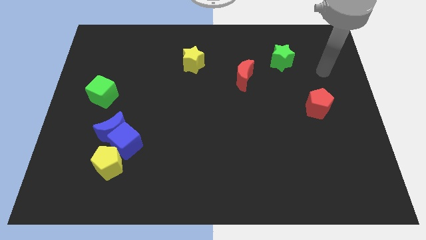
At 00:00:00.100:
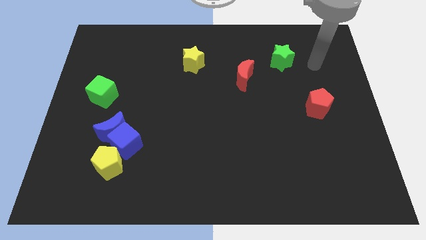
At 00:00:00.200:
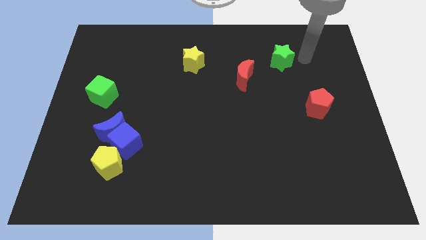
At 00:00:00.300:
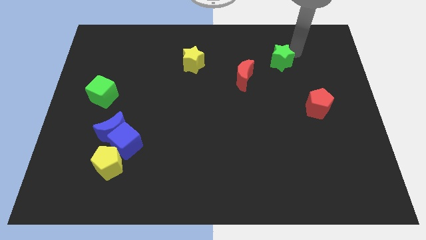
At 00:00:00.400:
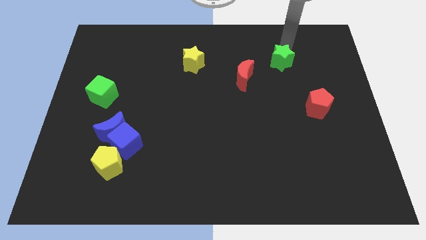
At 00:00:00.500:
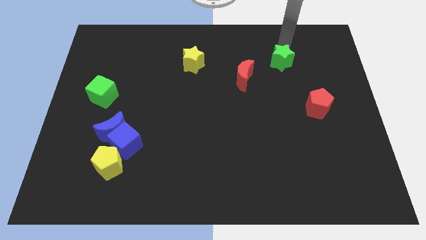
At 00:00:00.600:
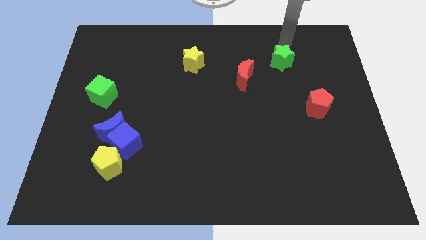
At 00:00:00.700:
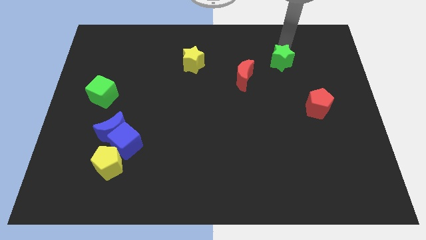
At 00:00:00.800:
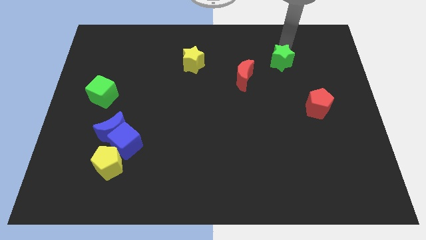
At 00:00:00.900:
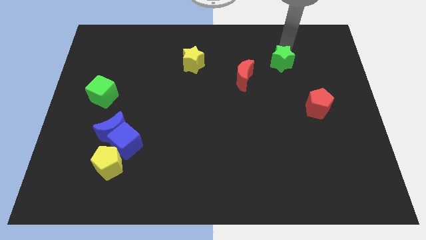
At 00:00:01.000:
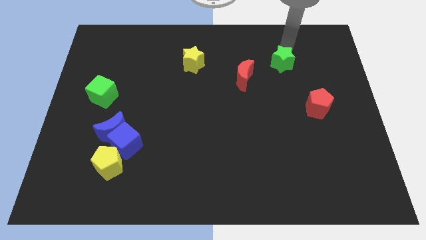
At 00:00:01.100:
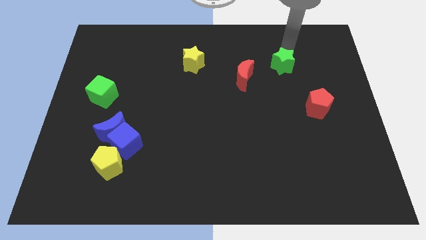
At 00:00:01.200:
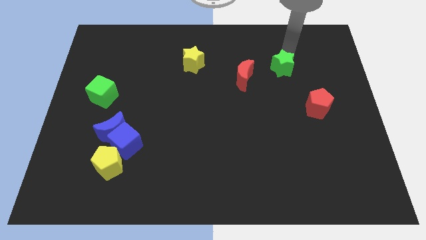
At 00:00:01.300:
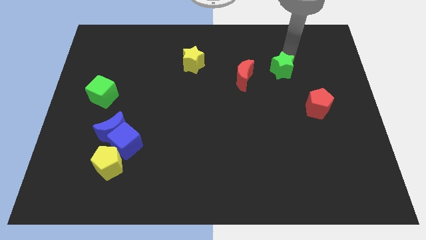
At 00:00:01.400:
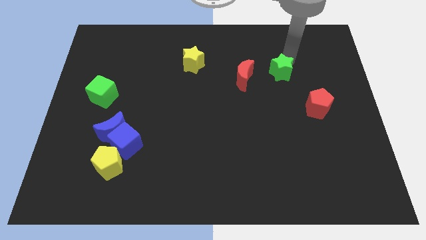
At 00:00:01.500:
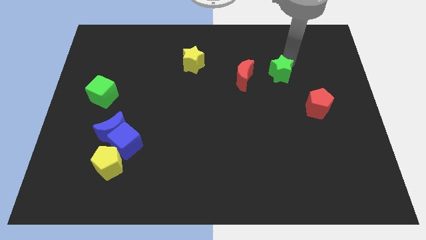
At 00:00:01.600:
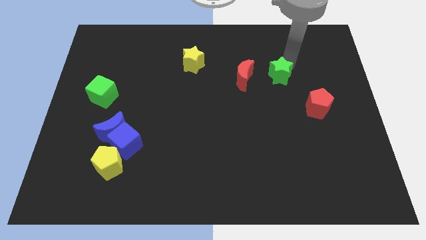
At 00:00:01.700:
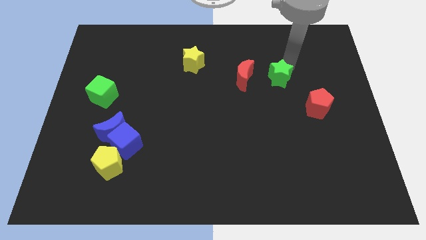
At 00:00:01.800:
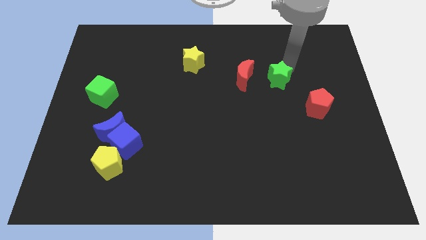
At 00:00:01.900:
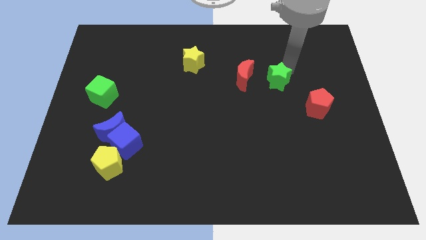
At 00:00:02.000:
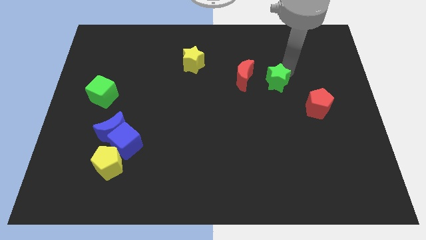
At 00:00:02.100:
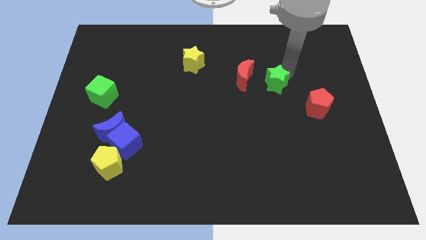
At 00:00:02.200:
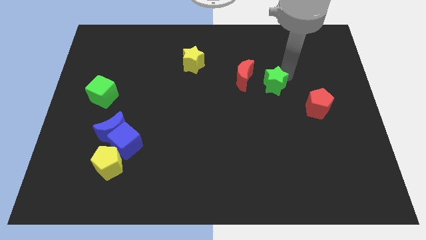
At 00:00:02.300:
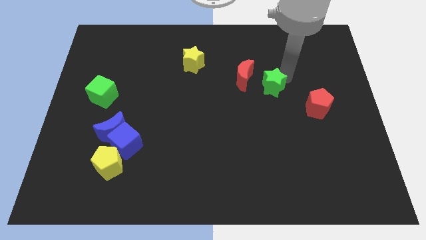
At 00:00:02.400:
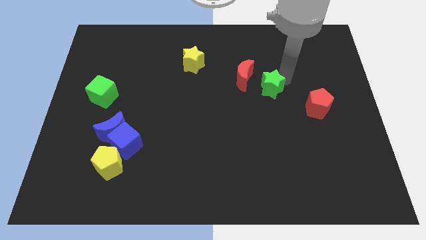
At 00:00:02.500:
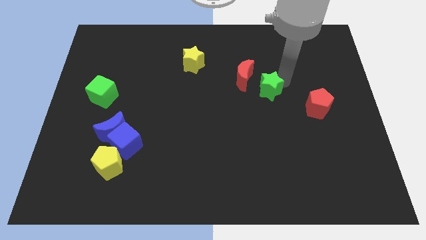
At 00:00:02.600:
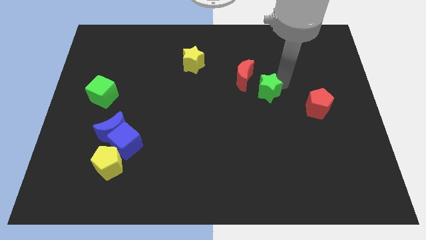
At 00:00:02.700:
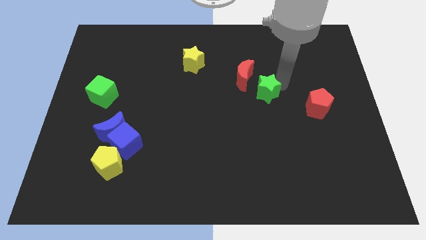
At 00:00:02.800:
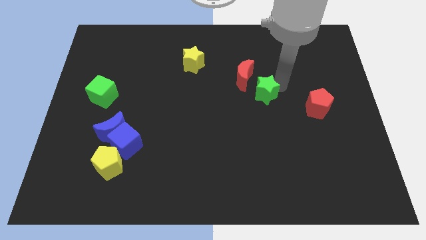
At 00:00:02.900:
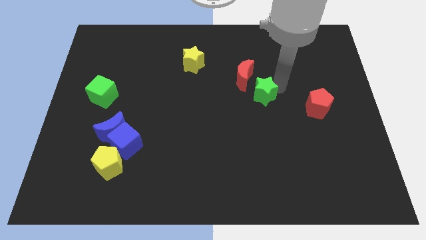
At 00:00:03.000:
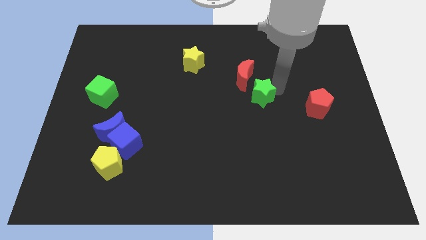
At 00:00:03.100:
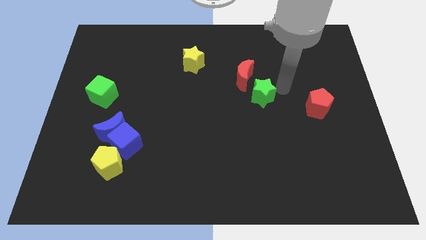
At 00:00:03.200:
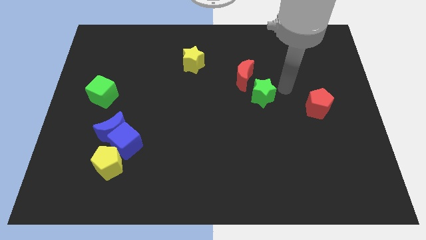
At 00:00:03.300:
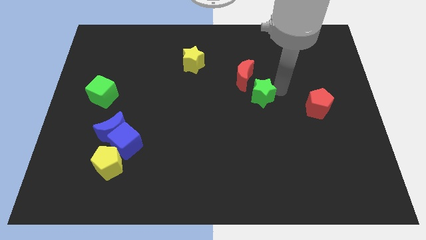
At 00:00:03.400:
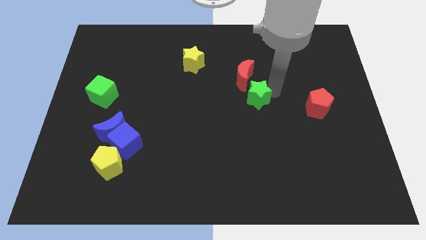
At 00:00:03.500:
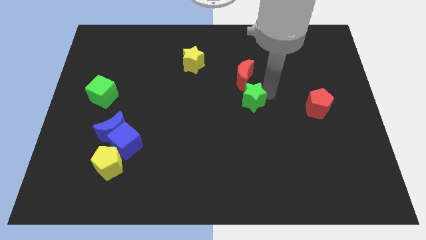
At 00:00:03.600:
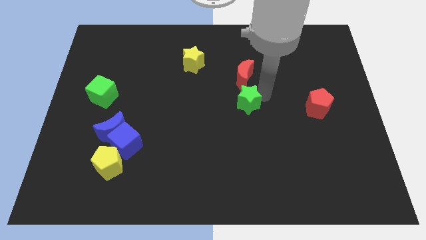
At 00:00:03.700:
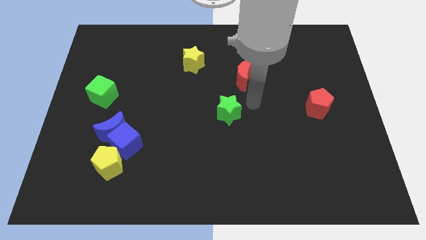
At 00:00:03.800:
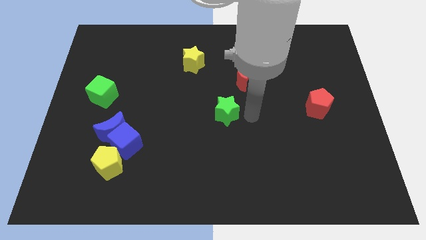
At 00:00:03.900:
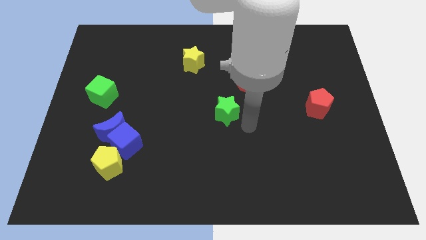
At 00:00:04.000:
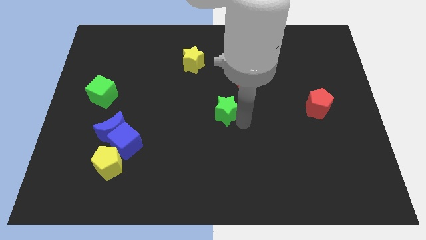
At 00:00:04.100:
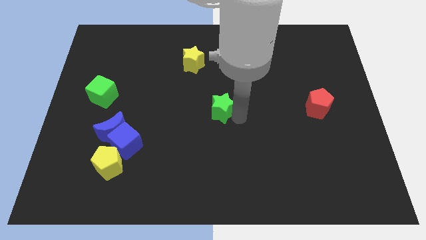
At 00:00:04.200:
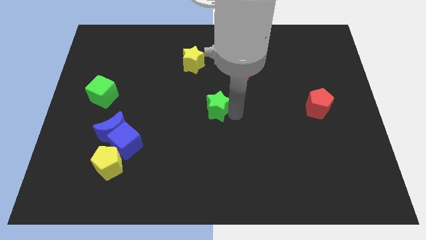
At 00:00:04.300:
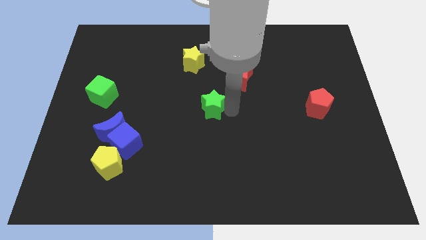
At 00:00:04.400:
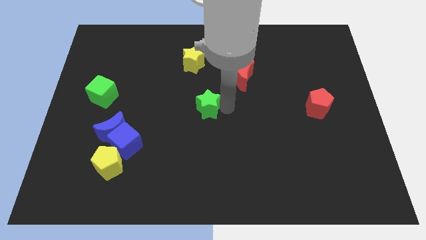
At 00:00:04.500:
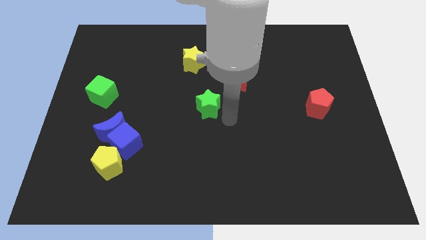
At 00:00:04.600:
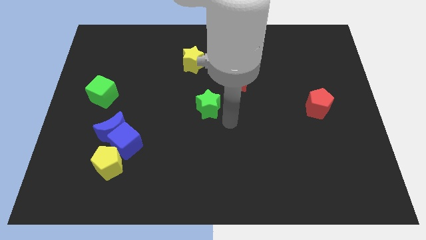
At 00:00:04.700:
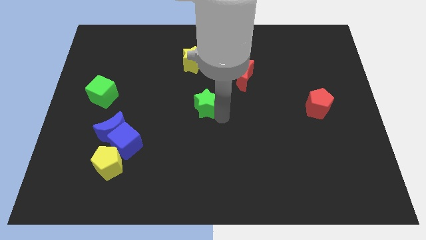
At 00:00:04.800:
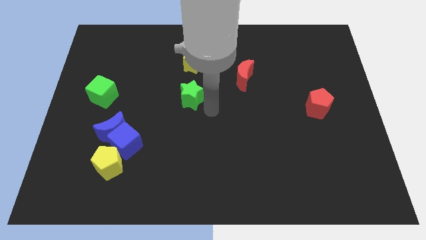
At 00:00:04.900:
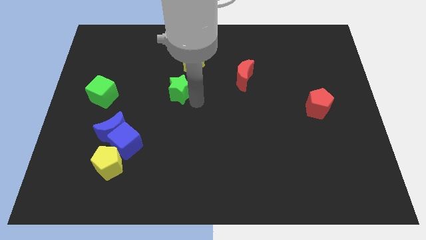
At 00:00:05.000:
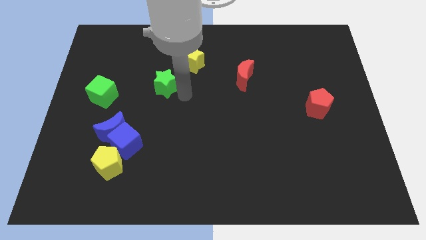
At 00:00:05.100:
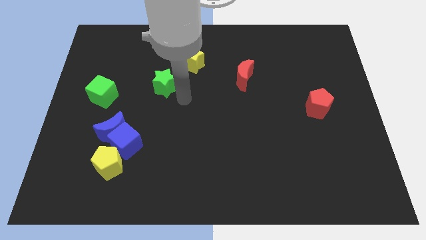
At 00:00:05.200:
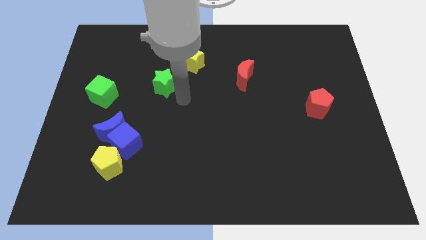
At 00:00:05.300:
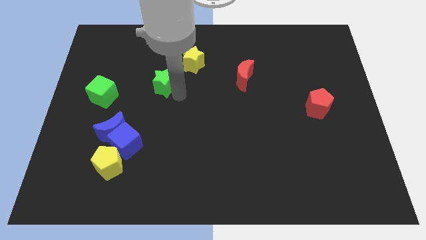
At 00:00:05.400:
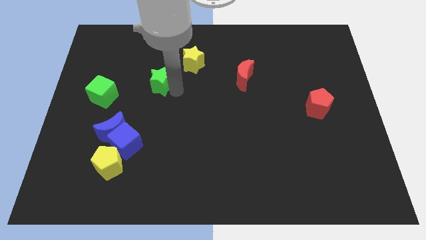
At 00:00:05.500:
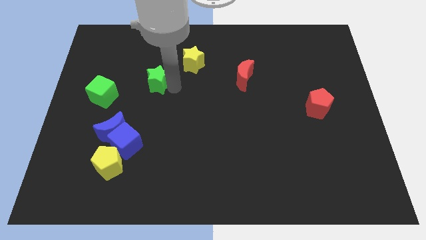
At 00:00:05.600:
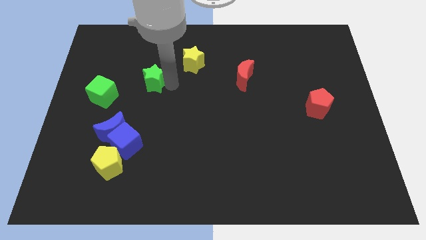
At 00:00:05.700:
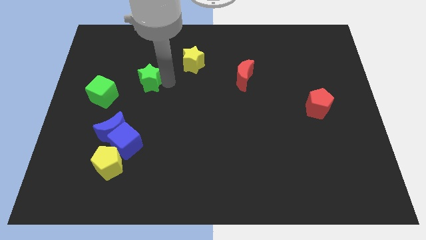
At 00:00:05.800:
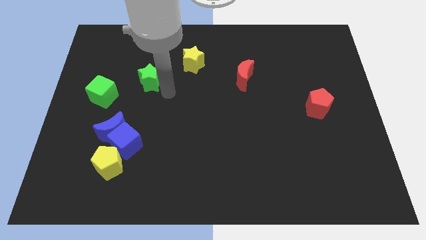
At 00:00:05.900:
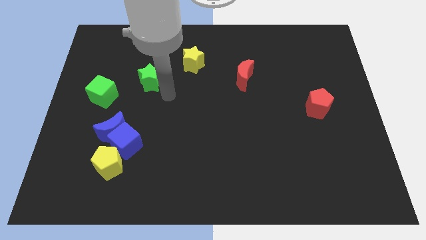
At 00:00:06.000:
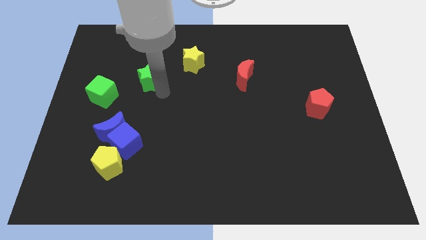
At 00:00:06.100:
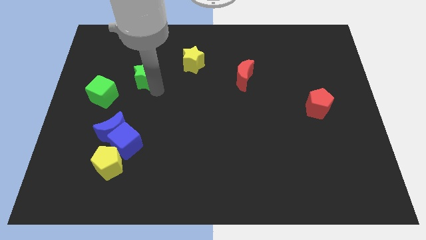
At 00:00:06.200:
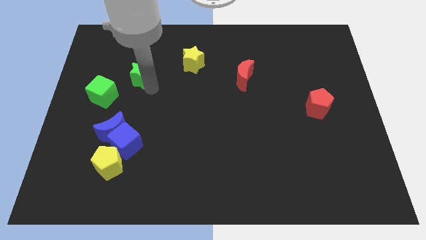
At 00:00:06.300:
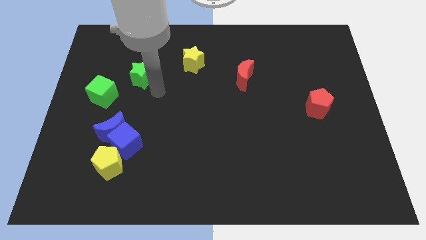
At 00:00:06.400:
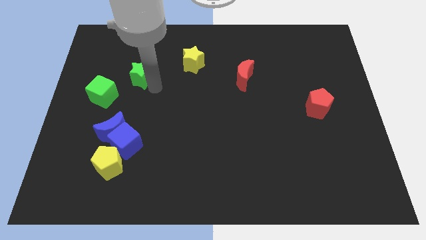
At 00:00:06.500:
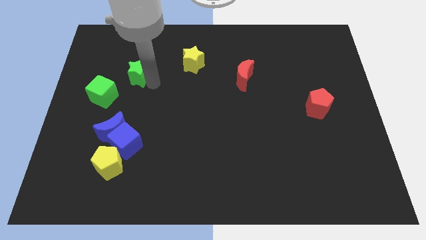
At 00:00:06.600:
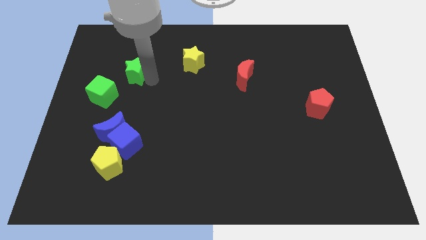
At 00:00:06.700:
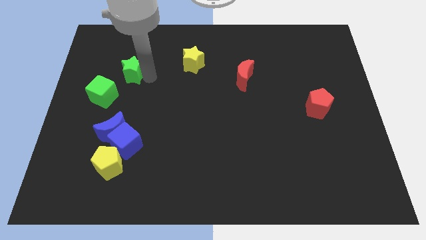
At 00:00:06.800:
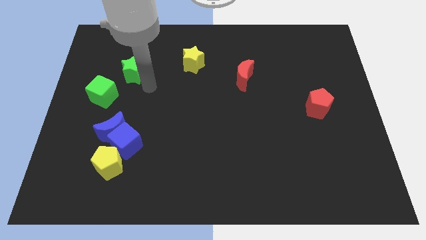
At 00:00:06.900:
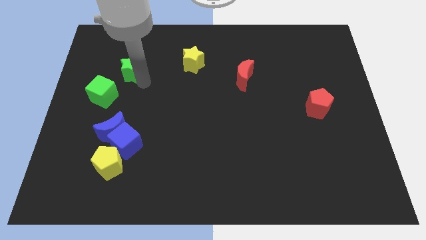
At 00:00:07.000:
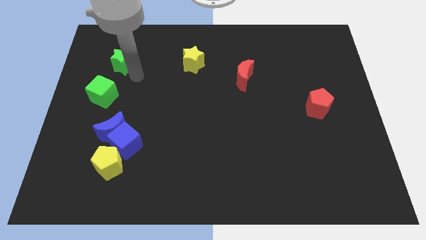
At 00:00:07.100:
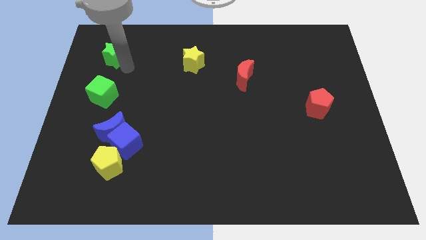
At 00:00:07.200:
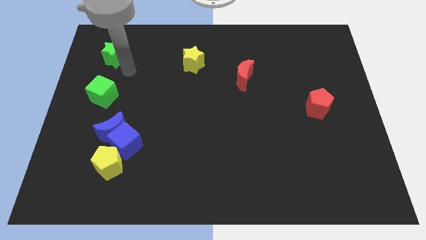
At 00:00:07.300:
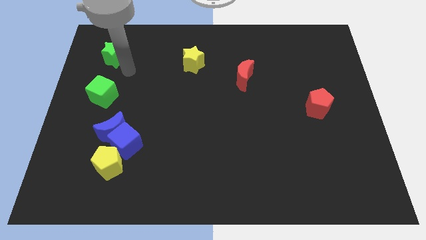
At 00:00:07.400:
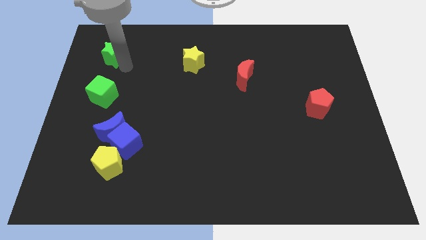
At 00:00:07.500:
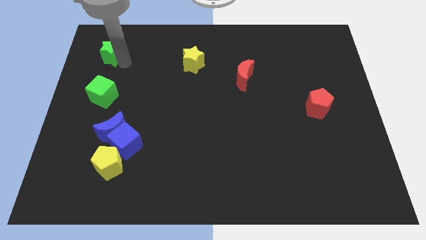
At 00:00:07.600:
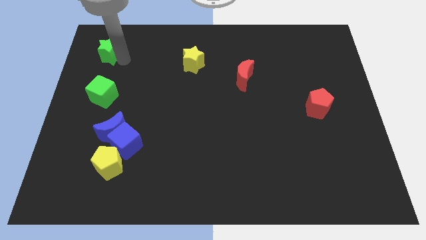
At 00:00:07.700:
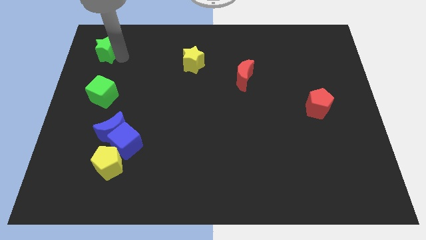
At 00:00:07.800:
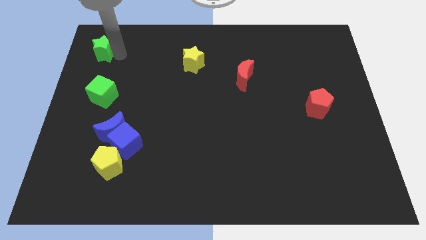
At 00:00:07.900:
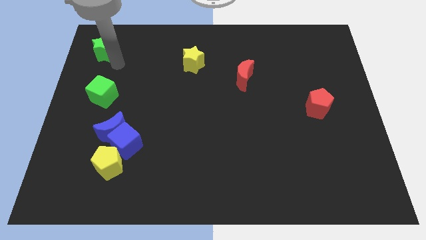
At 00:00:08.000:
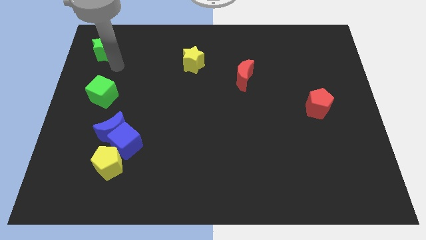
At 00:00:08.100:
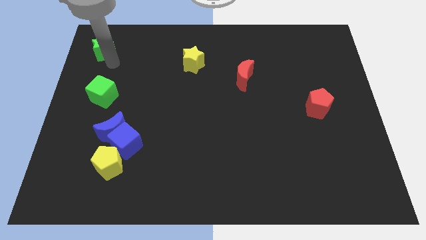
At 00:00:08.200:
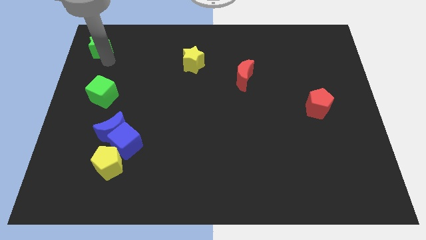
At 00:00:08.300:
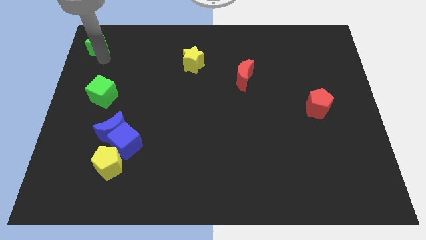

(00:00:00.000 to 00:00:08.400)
push the green star to the top left corner
